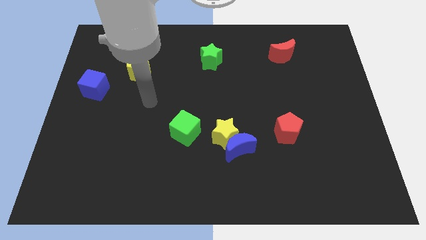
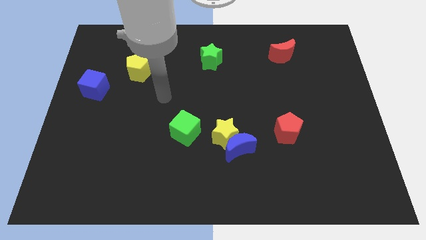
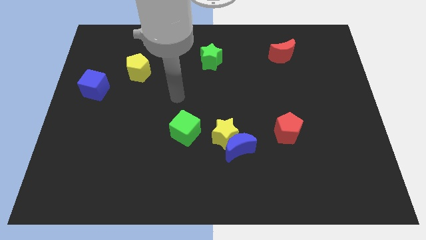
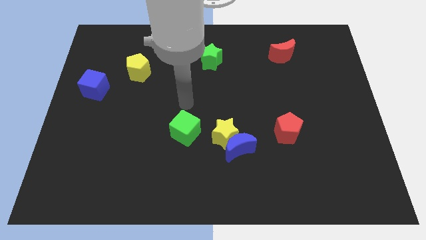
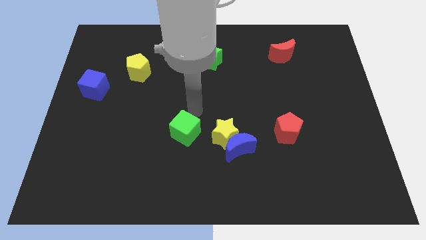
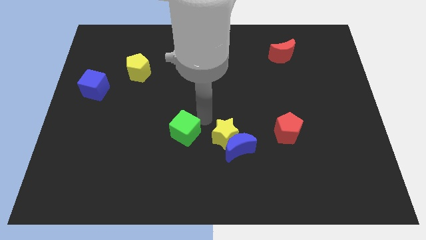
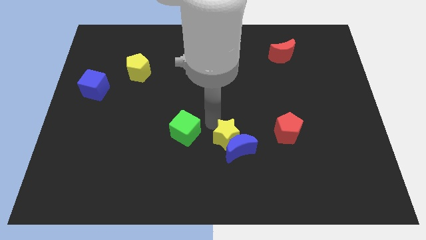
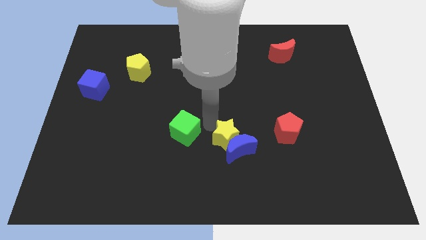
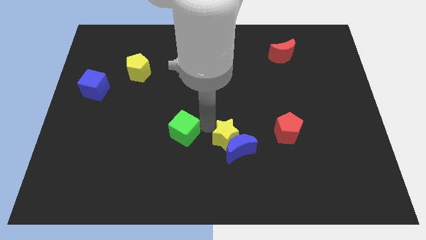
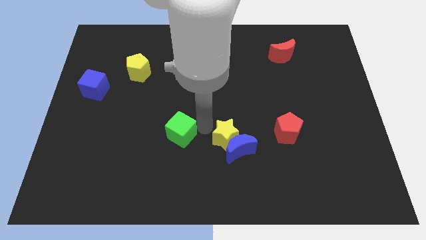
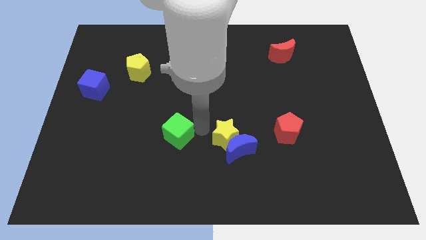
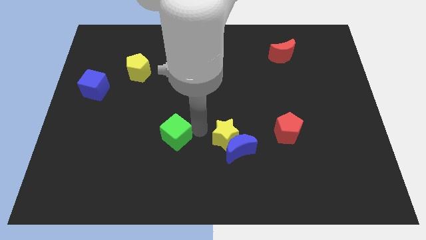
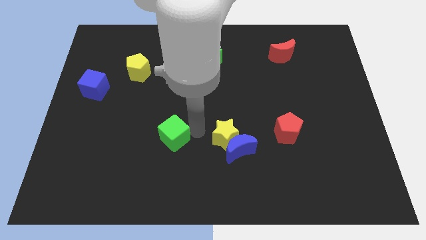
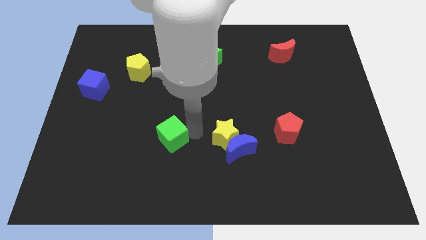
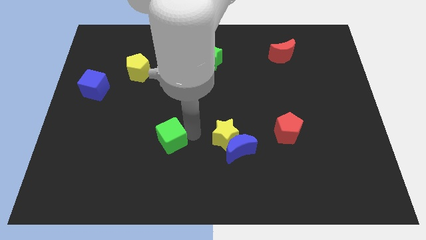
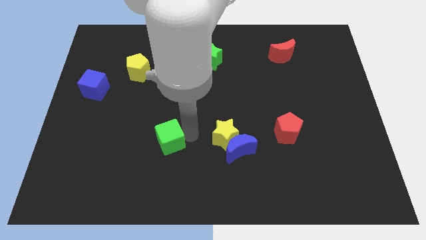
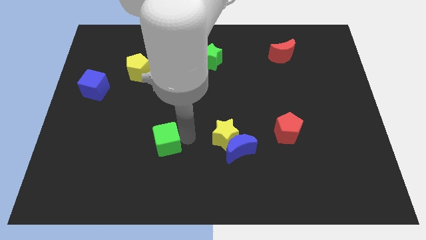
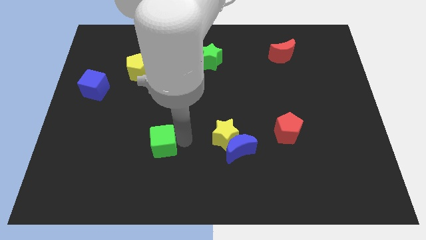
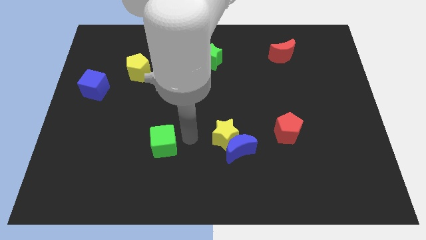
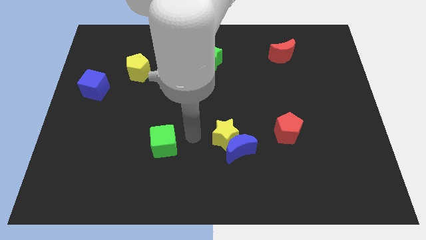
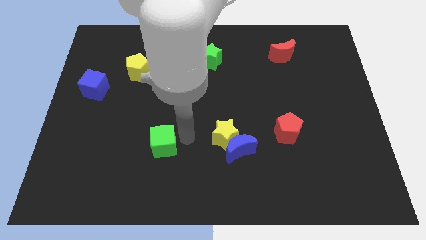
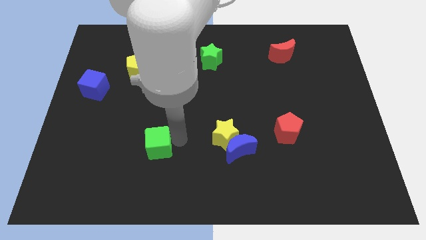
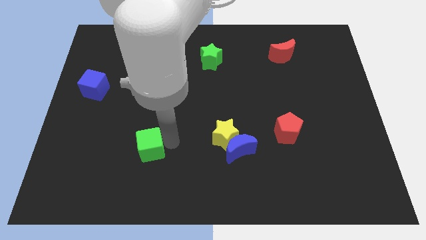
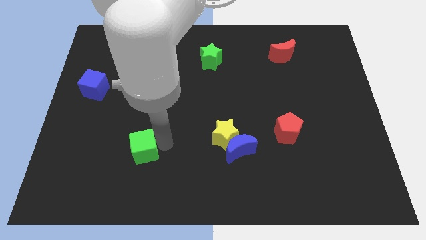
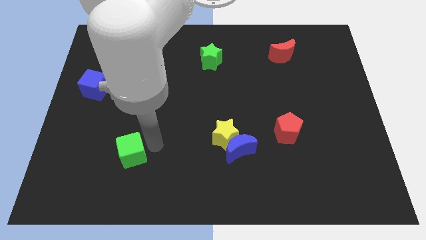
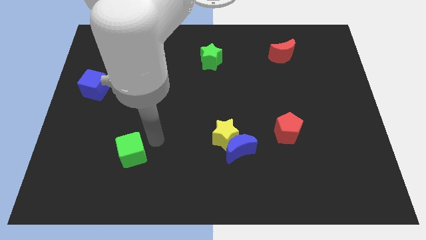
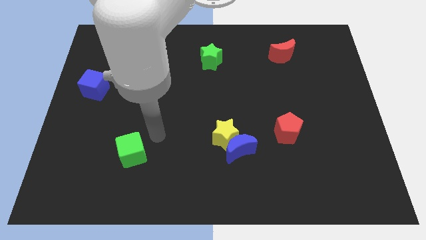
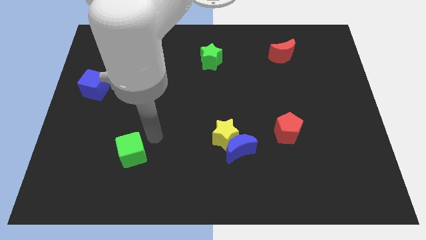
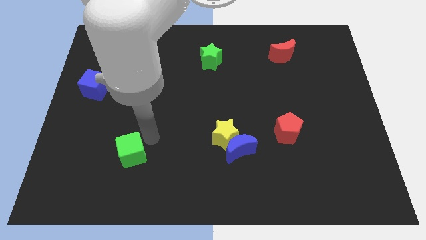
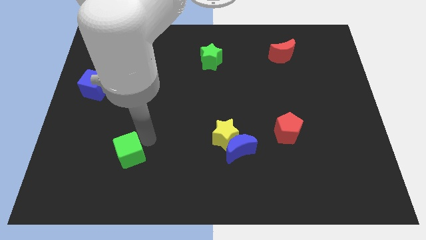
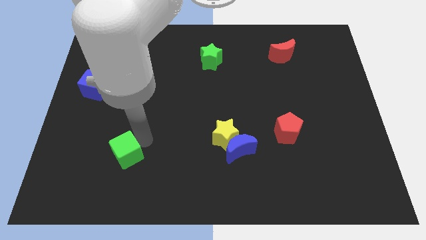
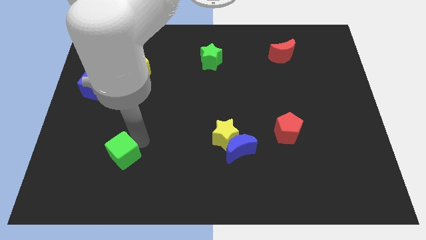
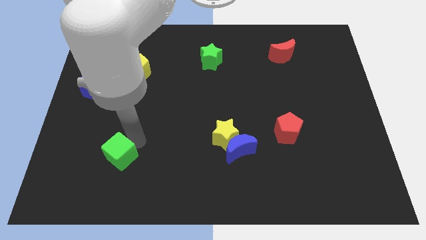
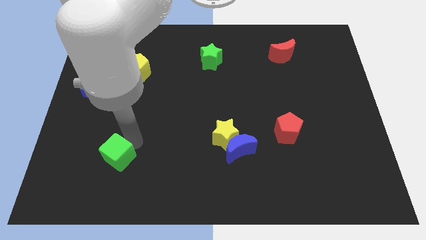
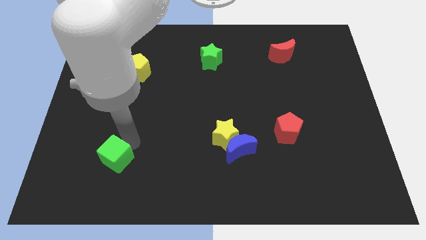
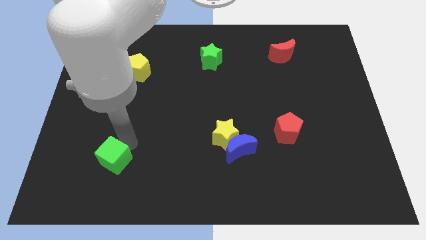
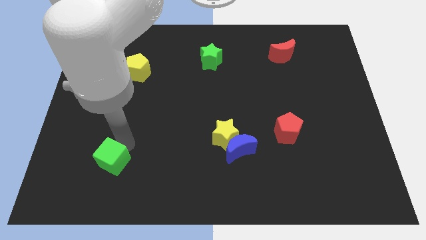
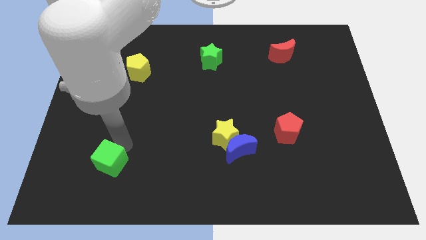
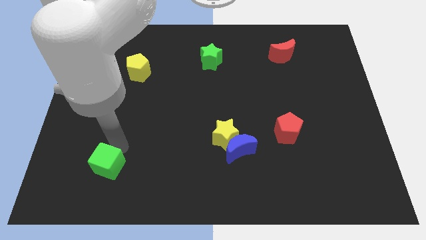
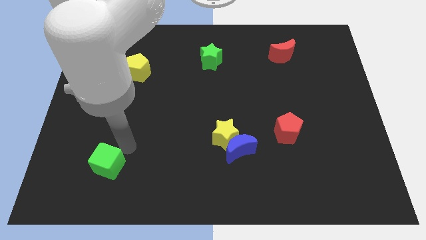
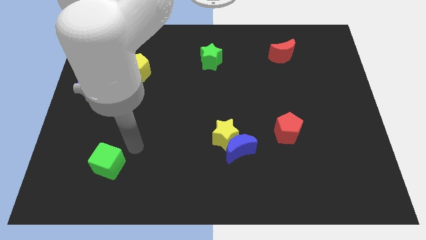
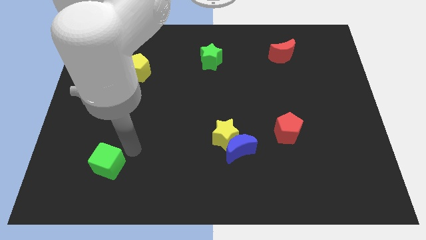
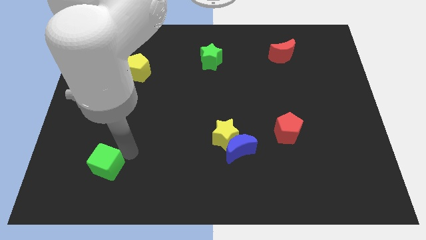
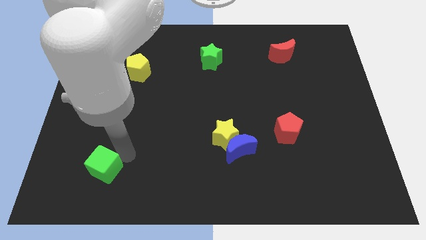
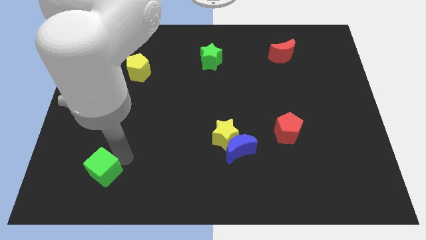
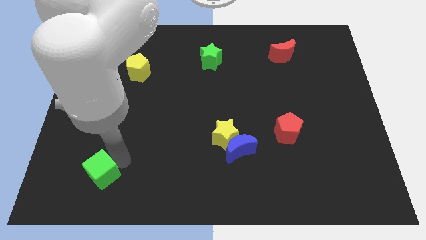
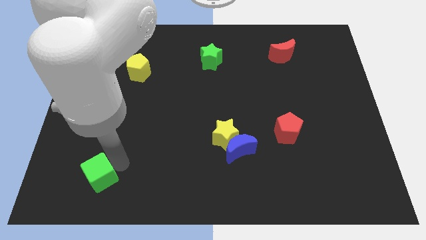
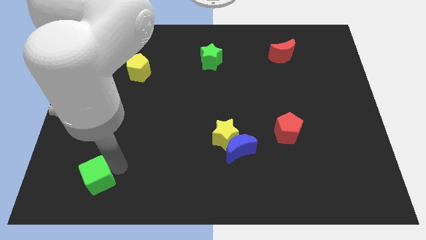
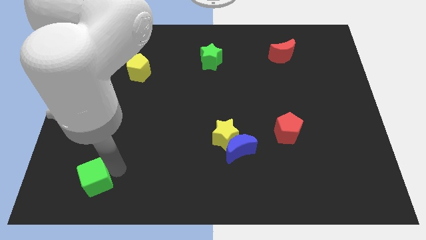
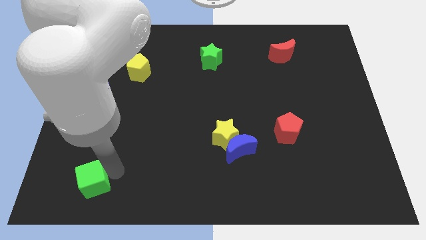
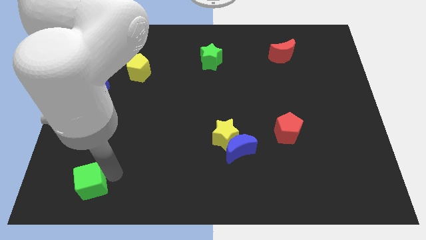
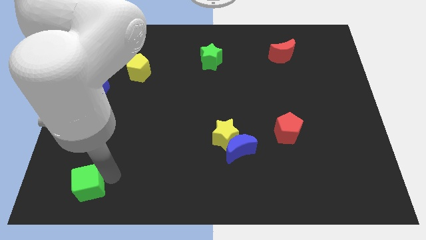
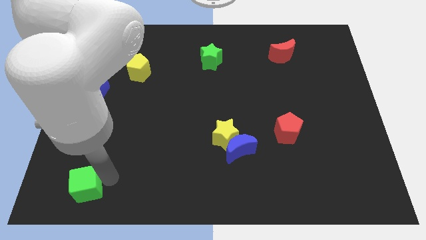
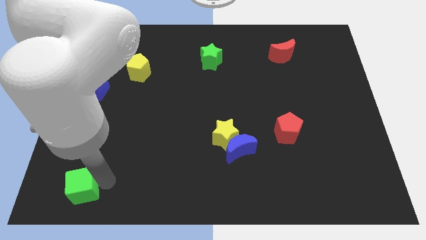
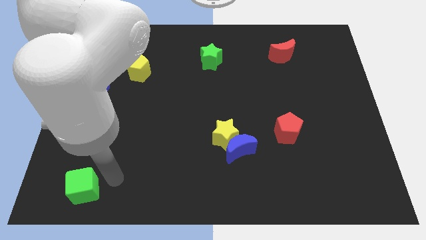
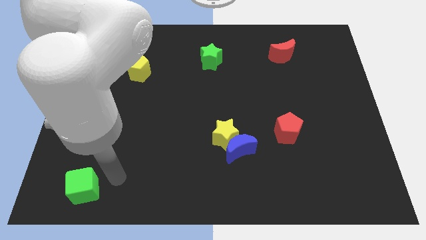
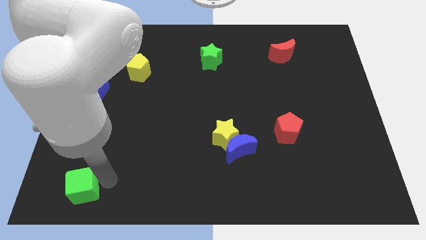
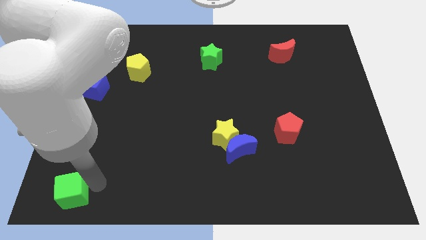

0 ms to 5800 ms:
push the green cube to the lower left corner

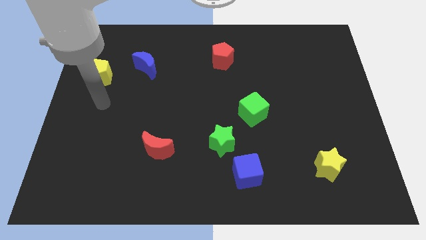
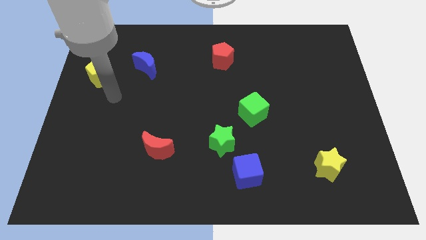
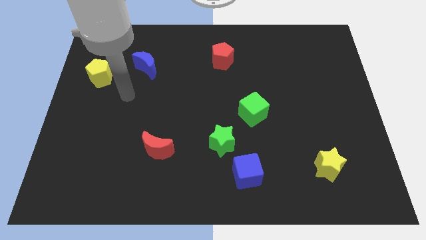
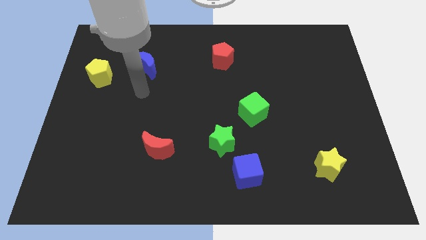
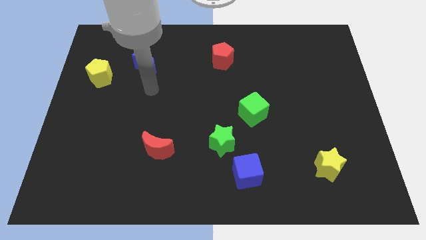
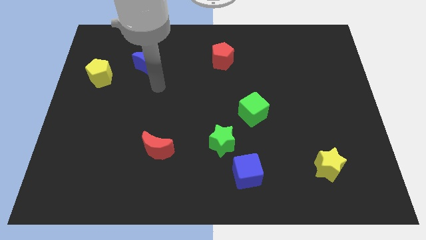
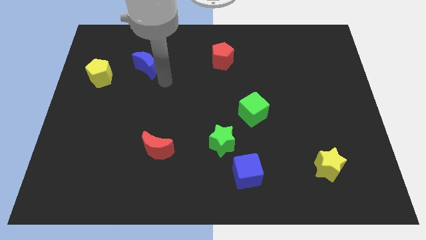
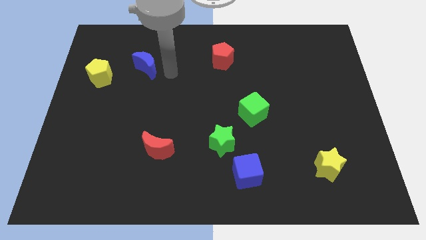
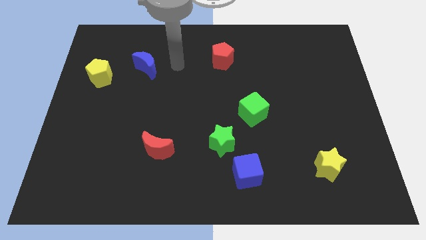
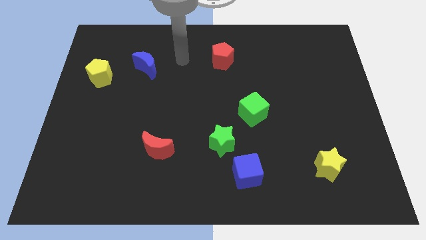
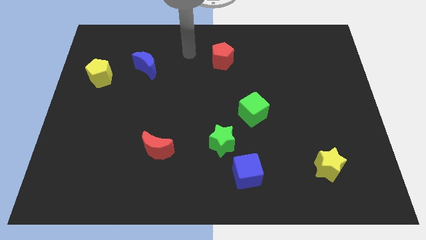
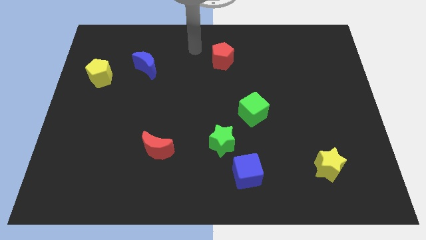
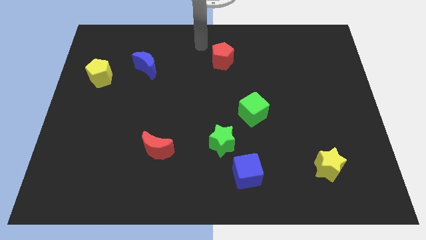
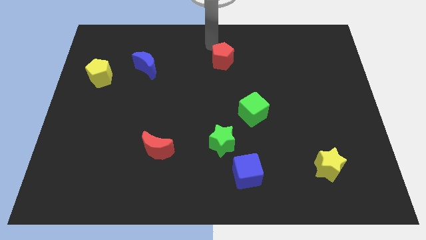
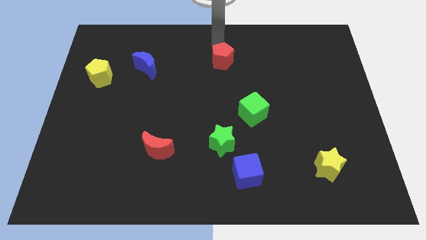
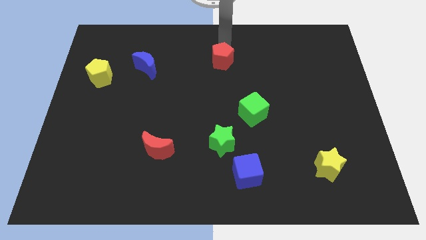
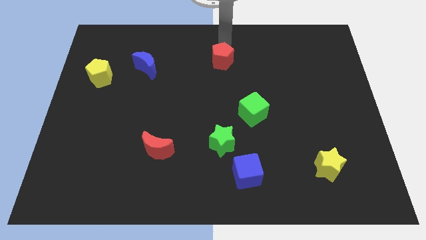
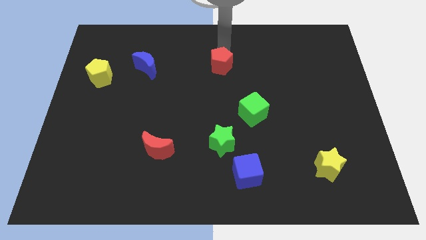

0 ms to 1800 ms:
slide the red pentagon to the middle of the board
